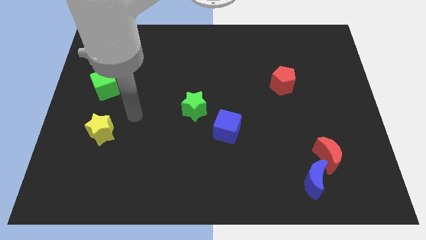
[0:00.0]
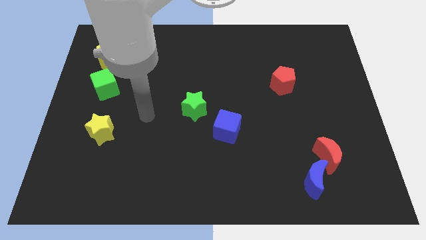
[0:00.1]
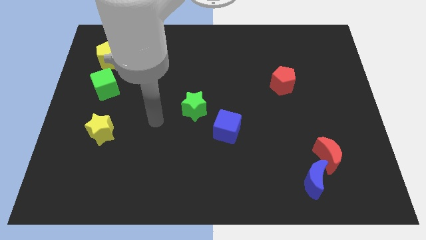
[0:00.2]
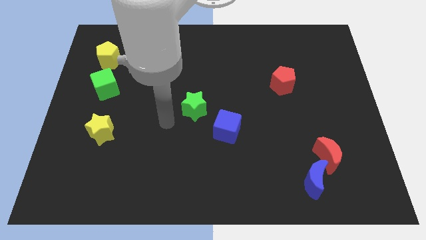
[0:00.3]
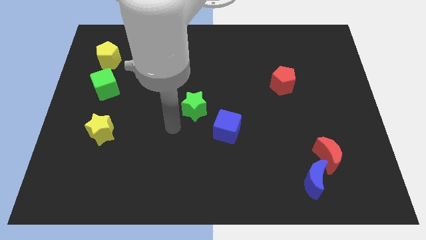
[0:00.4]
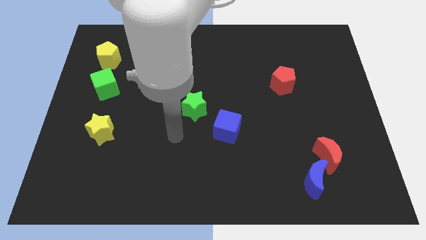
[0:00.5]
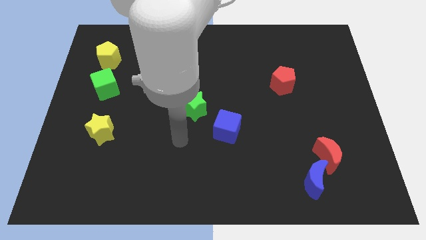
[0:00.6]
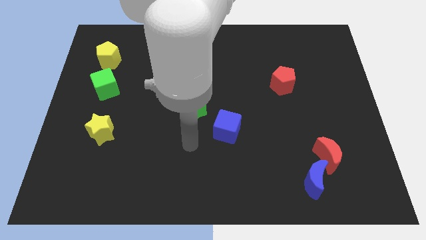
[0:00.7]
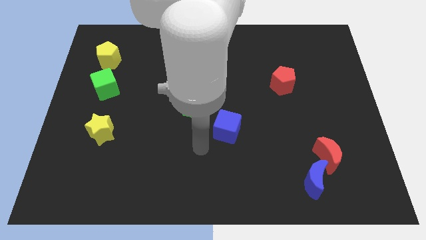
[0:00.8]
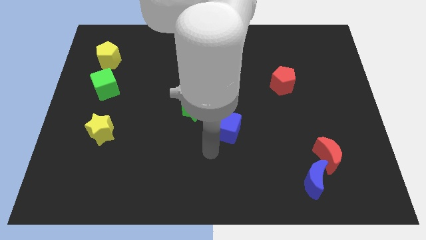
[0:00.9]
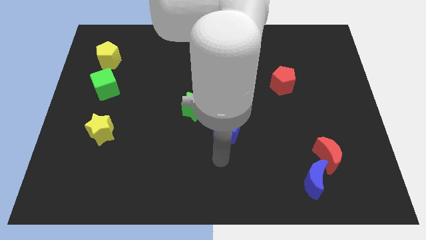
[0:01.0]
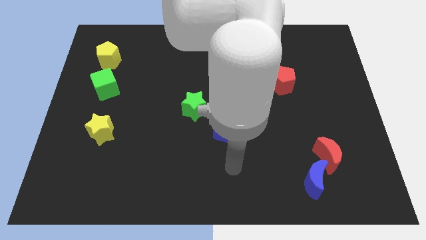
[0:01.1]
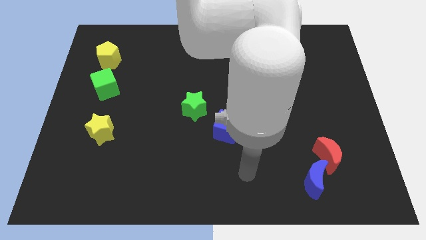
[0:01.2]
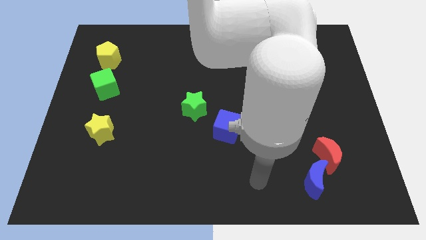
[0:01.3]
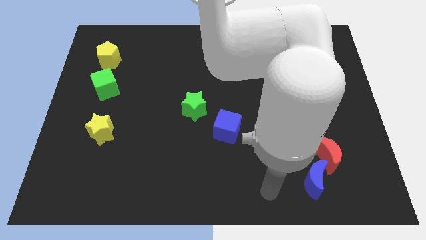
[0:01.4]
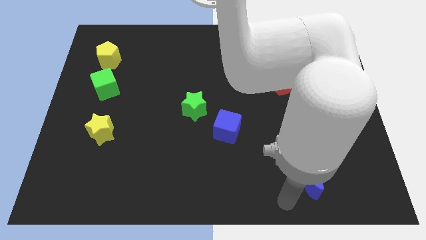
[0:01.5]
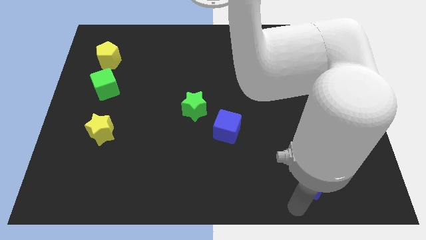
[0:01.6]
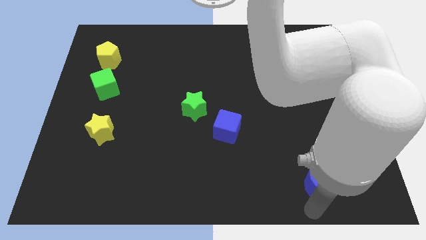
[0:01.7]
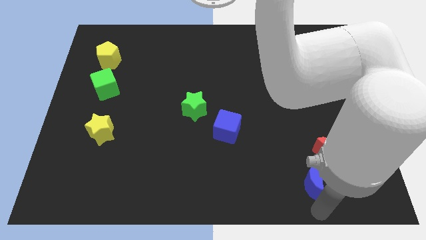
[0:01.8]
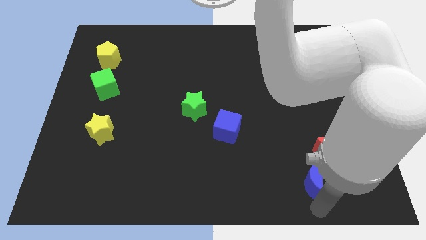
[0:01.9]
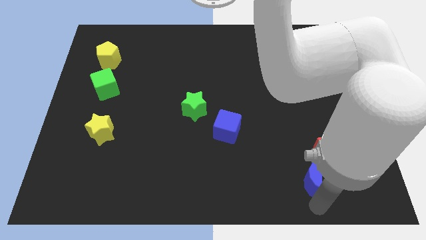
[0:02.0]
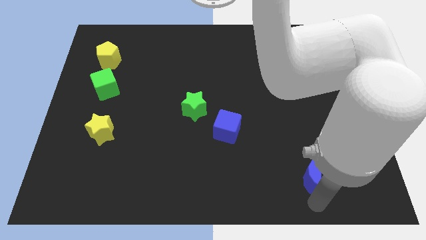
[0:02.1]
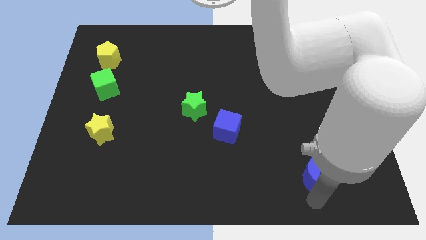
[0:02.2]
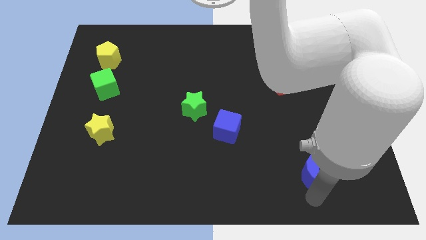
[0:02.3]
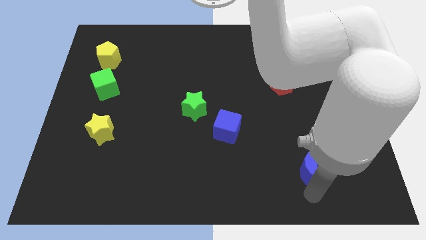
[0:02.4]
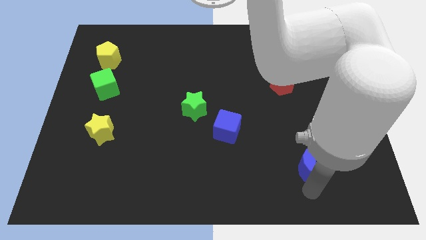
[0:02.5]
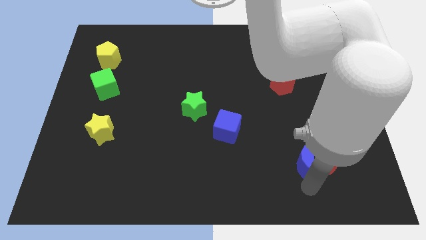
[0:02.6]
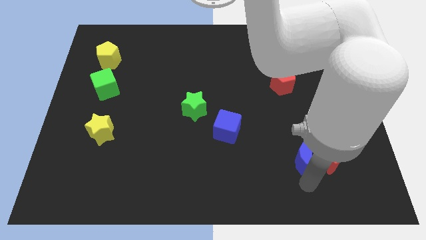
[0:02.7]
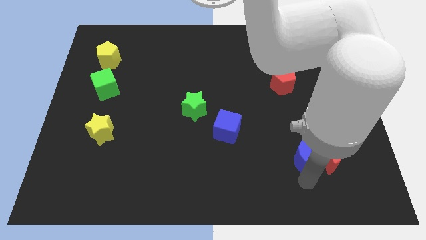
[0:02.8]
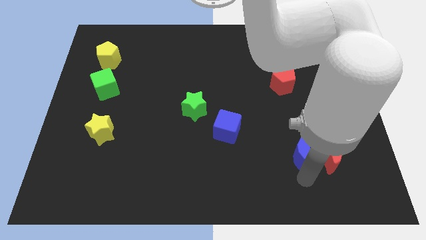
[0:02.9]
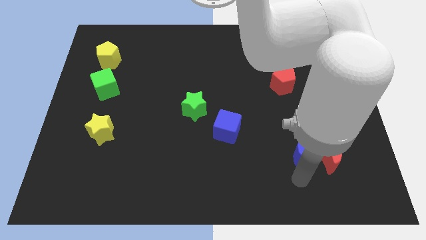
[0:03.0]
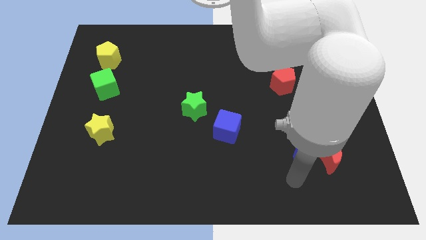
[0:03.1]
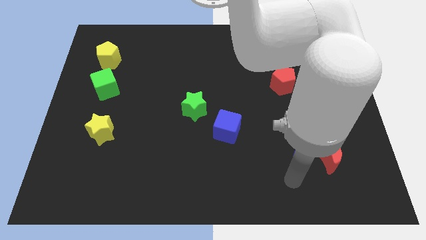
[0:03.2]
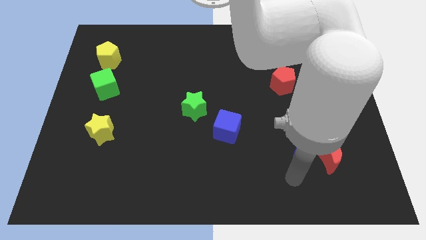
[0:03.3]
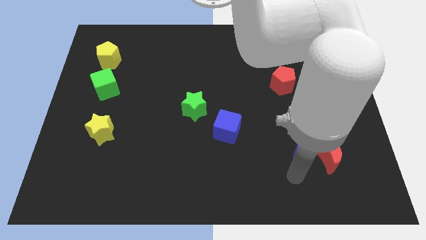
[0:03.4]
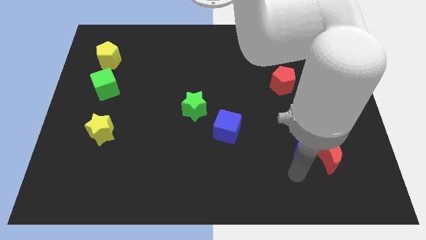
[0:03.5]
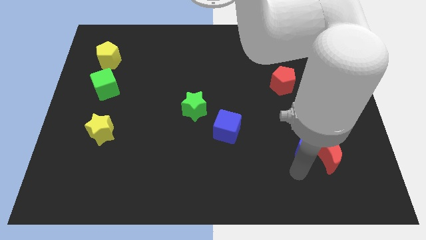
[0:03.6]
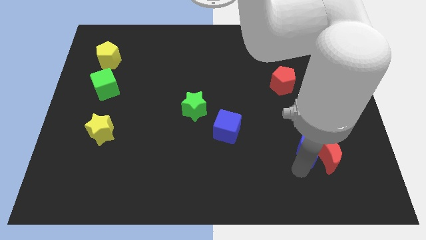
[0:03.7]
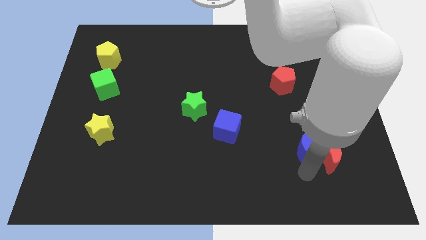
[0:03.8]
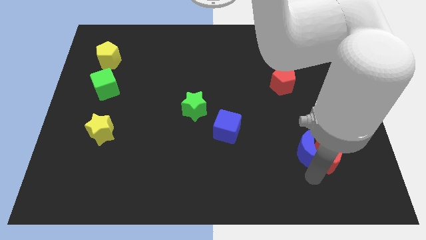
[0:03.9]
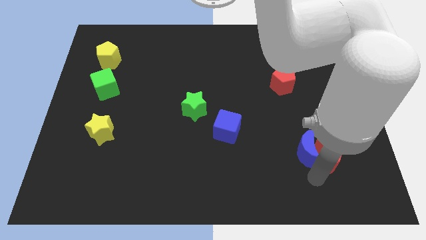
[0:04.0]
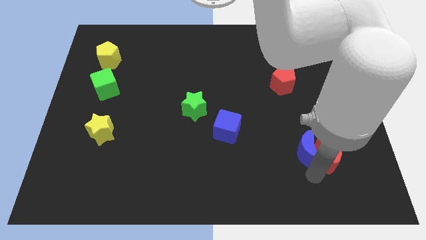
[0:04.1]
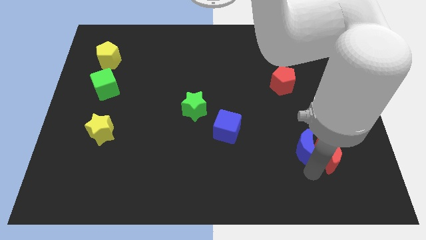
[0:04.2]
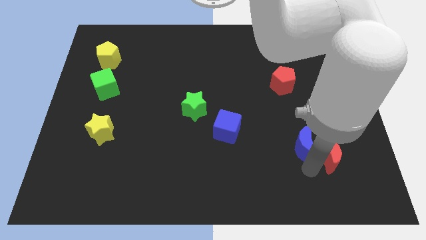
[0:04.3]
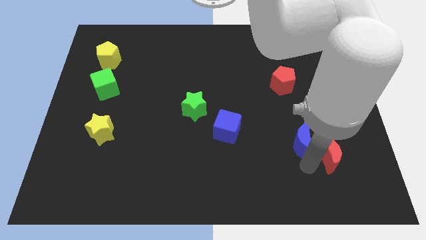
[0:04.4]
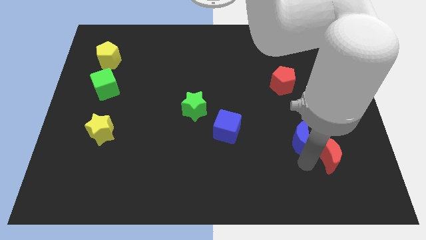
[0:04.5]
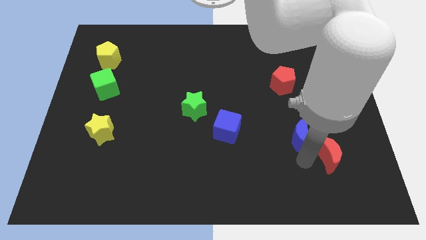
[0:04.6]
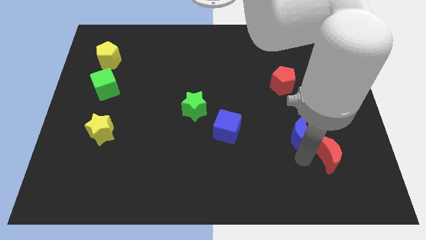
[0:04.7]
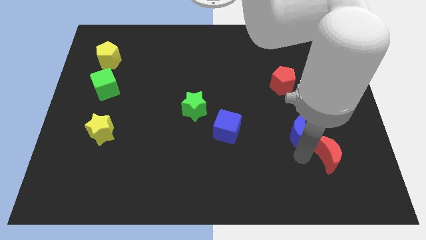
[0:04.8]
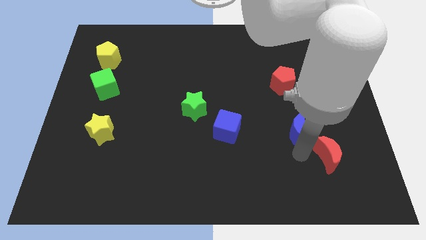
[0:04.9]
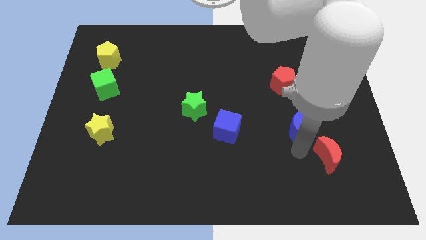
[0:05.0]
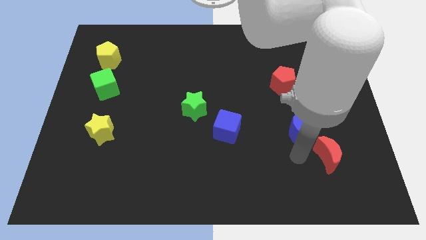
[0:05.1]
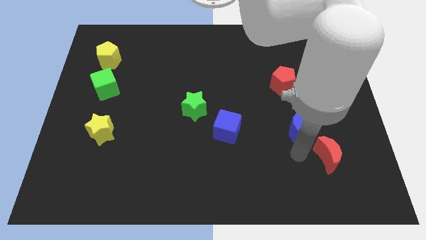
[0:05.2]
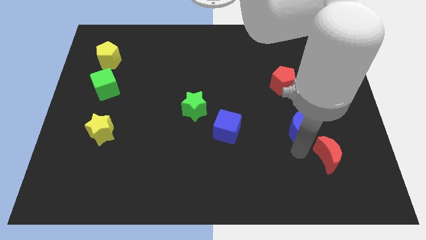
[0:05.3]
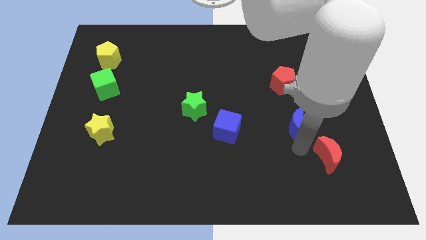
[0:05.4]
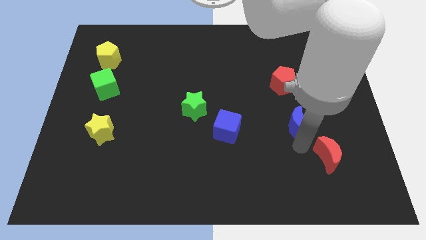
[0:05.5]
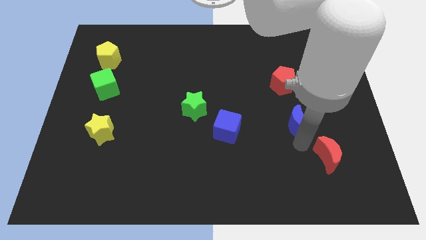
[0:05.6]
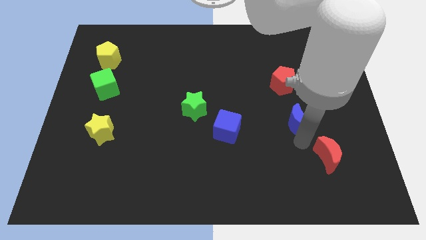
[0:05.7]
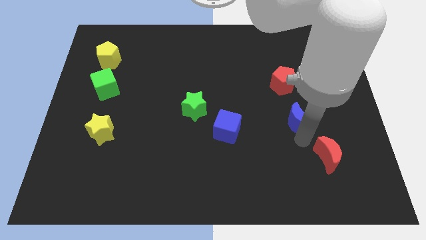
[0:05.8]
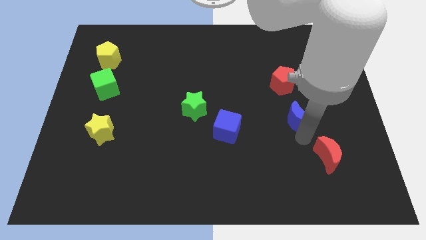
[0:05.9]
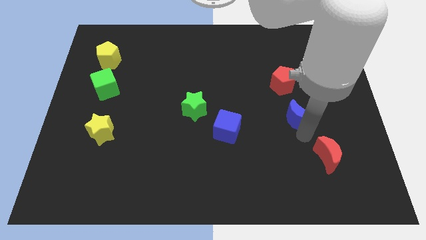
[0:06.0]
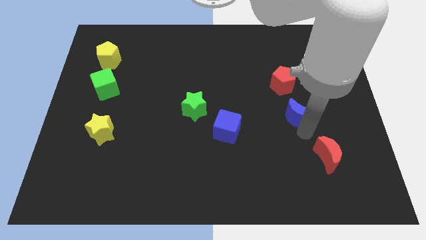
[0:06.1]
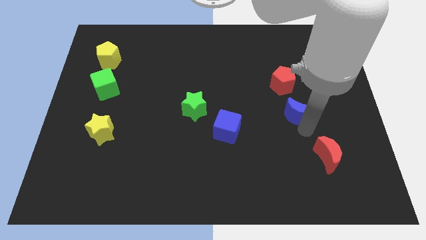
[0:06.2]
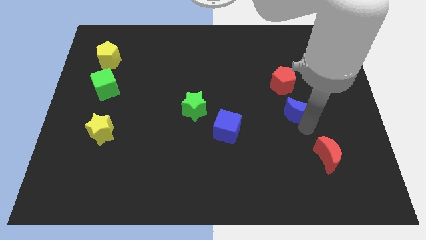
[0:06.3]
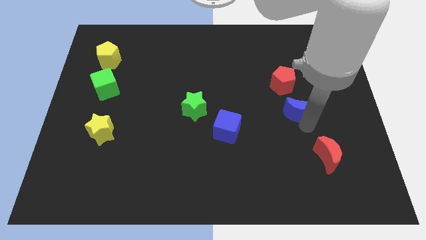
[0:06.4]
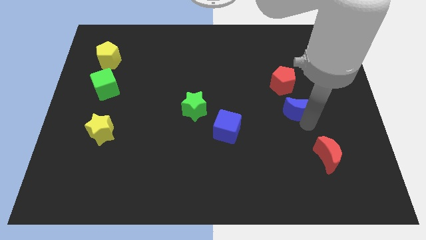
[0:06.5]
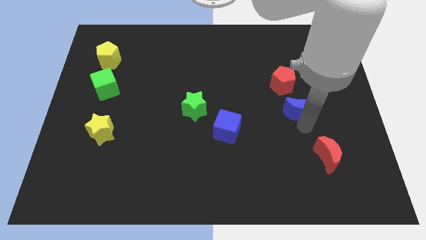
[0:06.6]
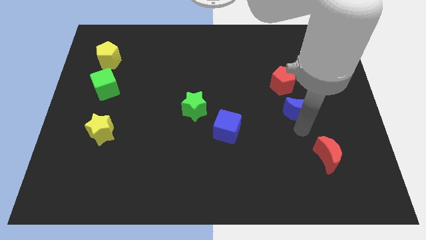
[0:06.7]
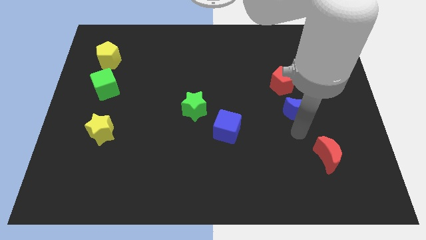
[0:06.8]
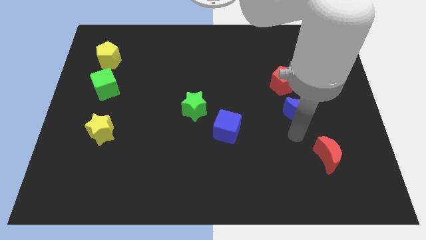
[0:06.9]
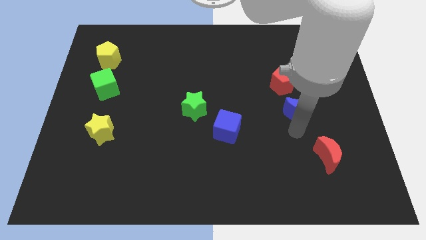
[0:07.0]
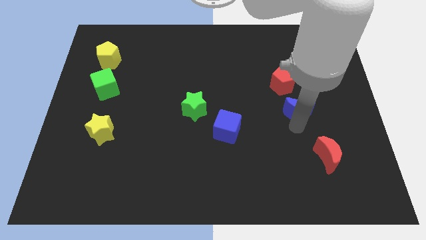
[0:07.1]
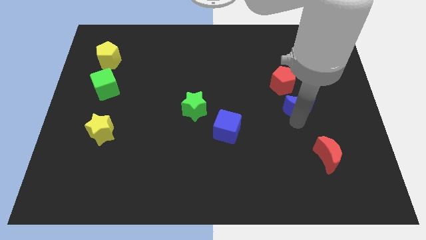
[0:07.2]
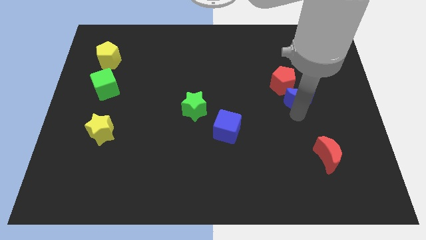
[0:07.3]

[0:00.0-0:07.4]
move the blue moon upwards

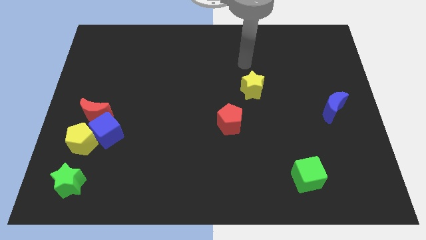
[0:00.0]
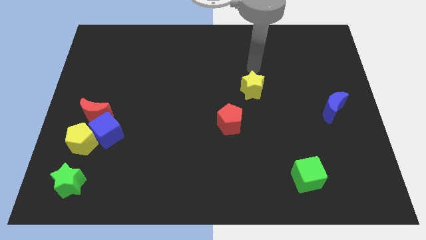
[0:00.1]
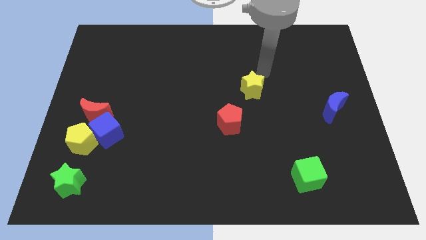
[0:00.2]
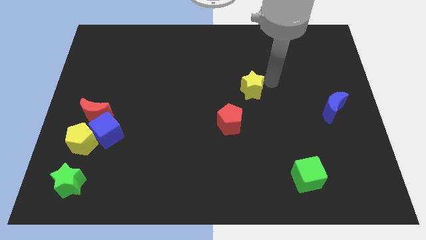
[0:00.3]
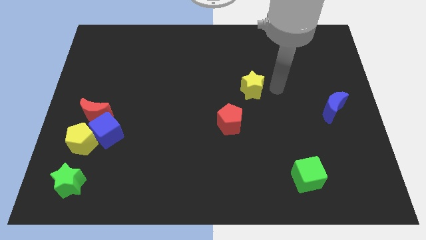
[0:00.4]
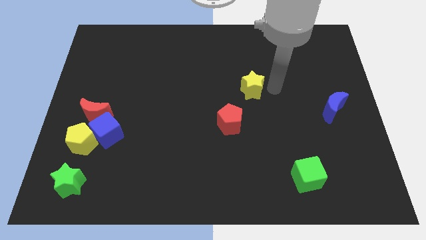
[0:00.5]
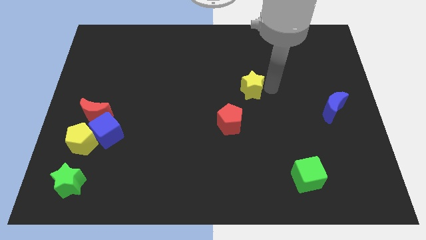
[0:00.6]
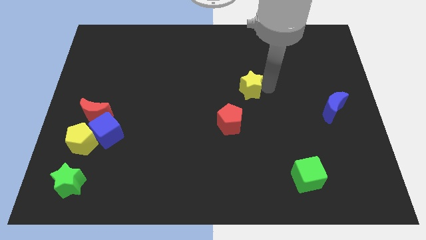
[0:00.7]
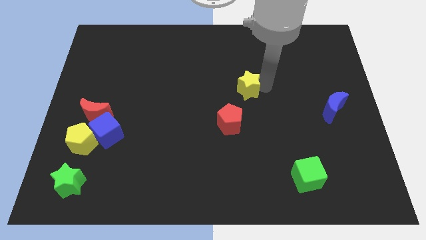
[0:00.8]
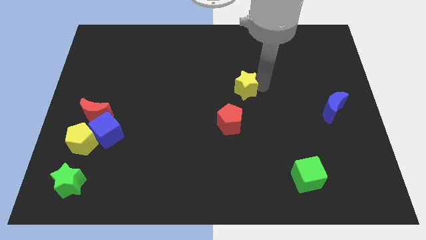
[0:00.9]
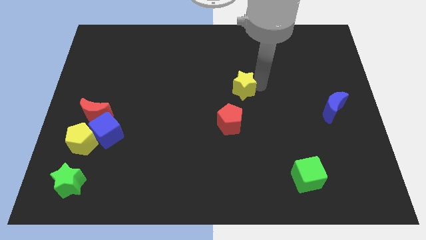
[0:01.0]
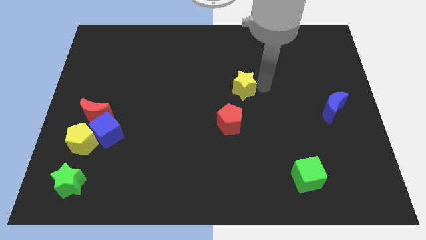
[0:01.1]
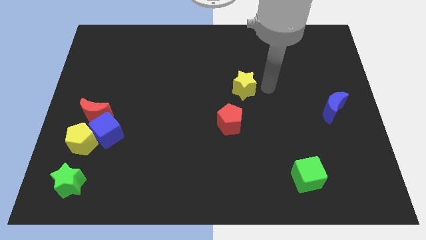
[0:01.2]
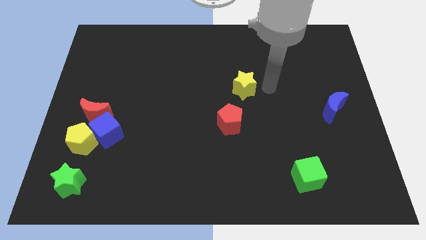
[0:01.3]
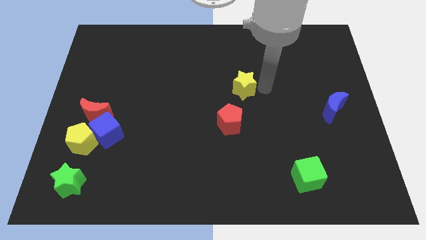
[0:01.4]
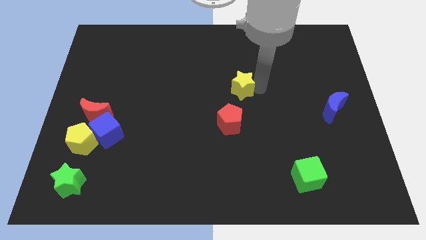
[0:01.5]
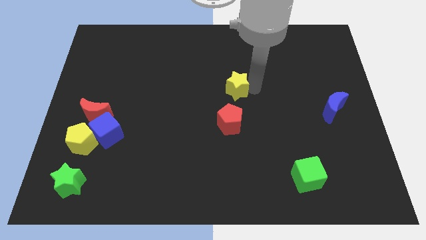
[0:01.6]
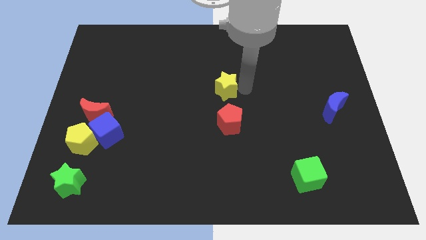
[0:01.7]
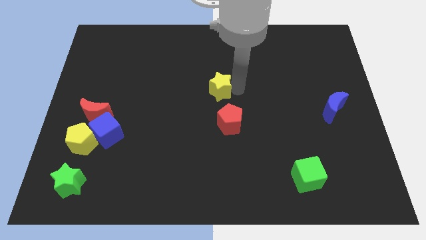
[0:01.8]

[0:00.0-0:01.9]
slightly push the yellow star left
